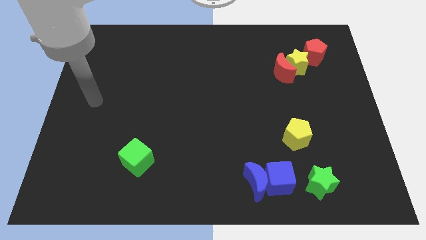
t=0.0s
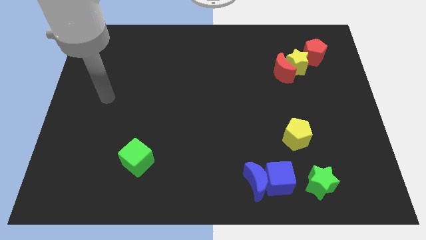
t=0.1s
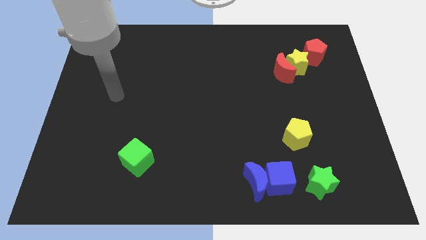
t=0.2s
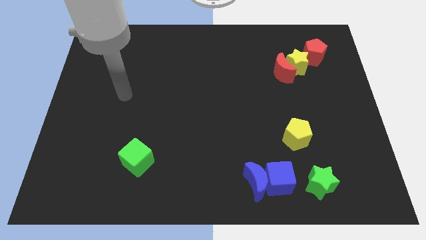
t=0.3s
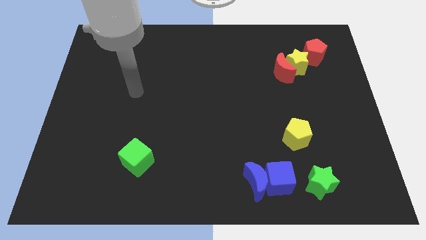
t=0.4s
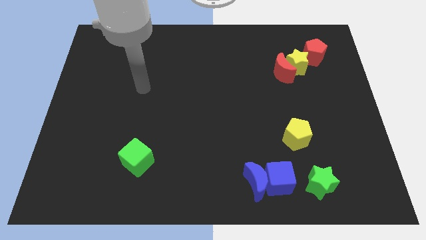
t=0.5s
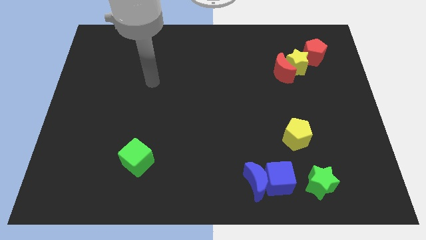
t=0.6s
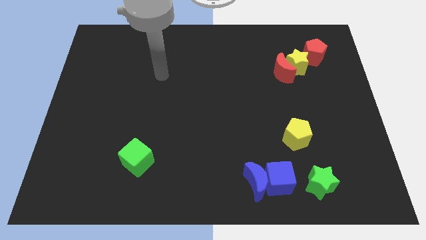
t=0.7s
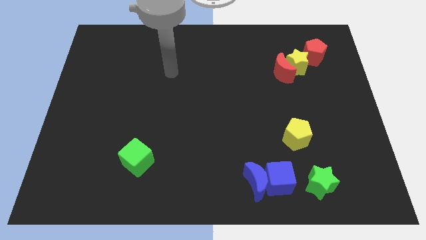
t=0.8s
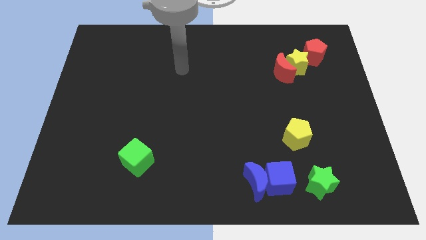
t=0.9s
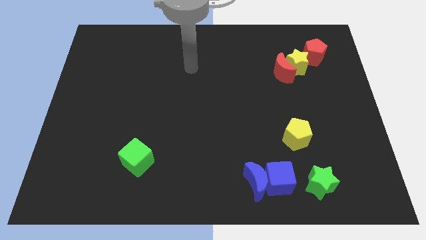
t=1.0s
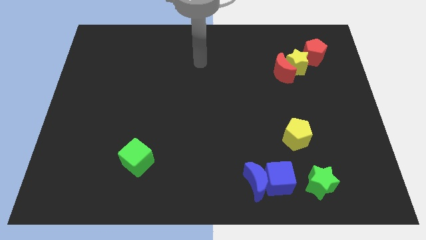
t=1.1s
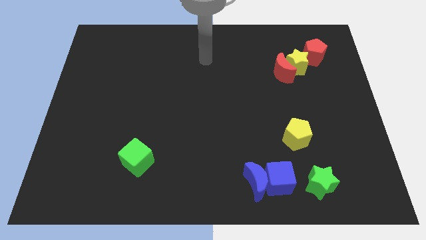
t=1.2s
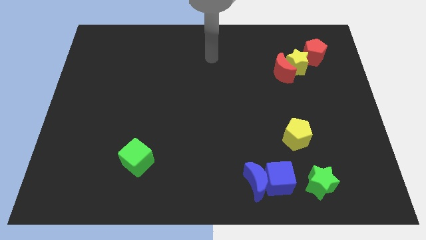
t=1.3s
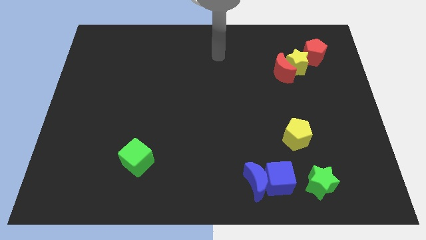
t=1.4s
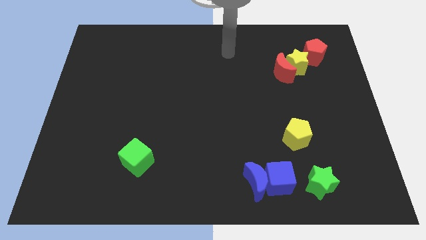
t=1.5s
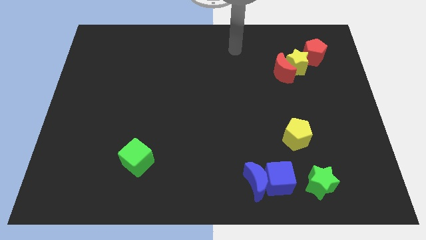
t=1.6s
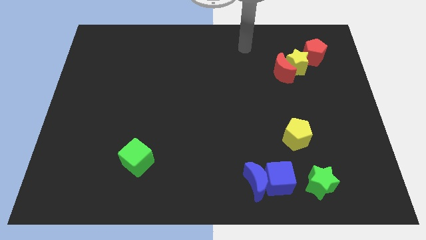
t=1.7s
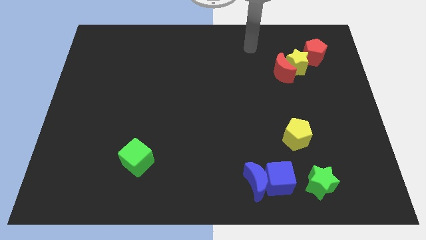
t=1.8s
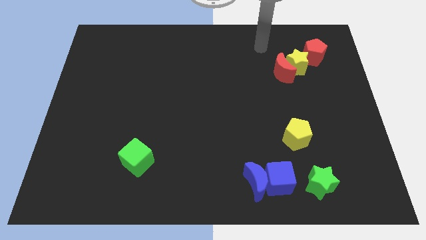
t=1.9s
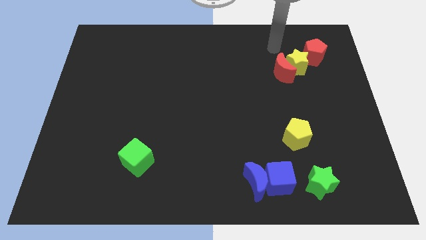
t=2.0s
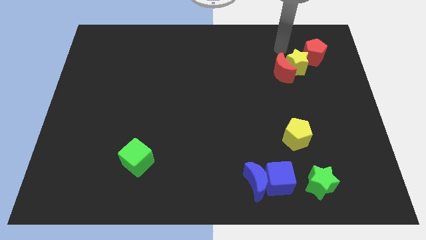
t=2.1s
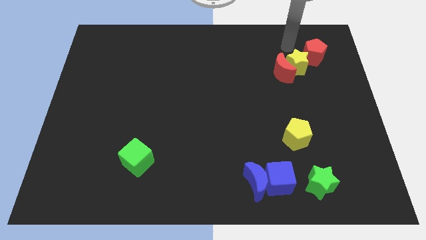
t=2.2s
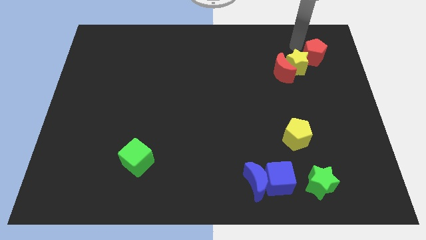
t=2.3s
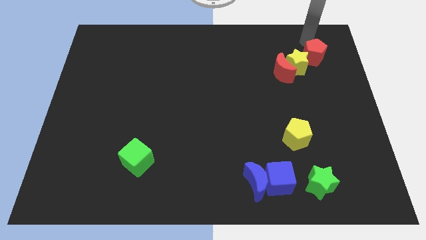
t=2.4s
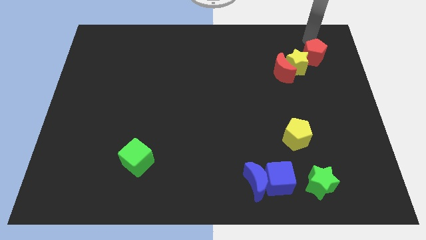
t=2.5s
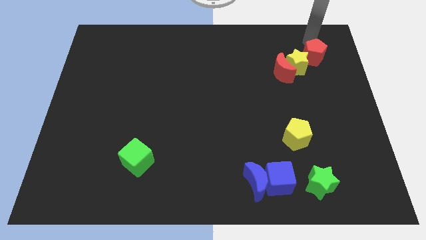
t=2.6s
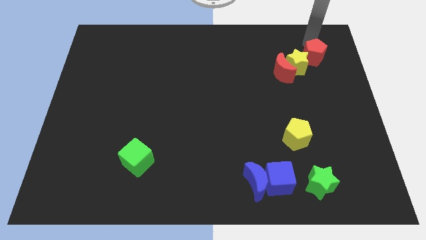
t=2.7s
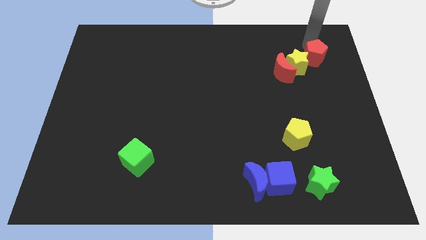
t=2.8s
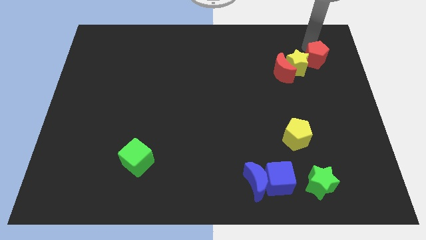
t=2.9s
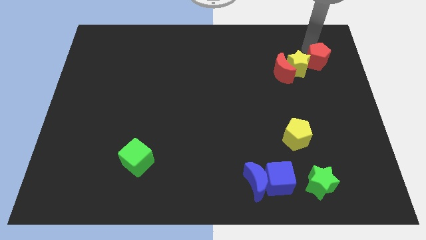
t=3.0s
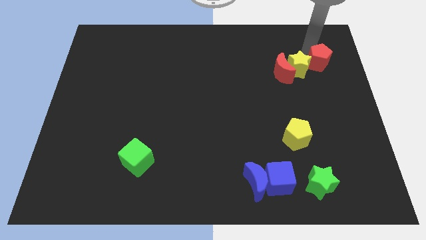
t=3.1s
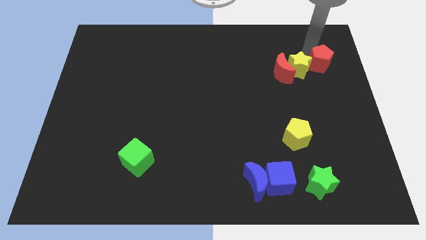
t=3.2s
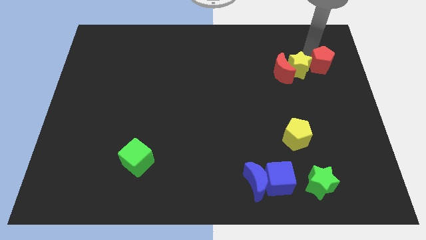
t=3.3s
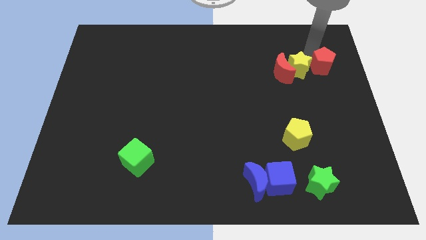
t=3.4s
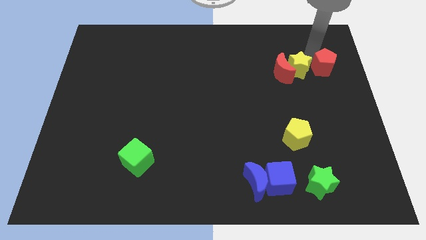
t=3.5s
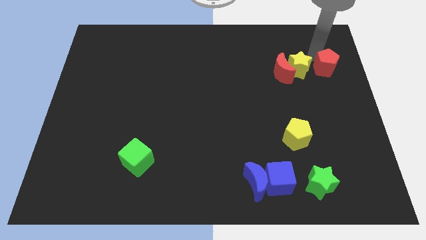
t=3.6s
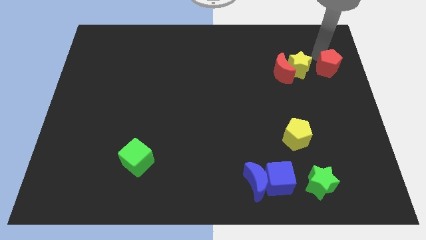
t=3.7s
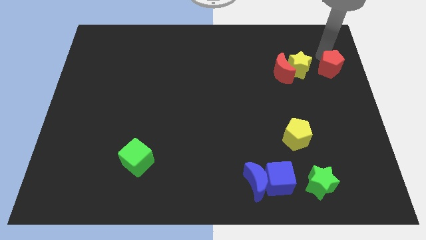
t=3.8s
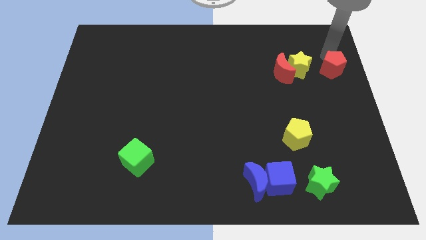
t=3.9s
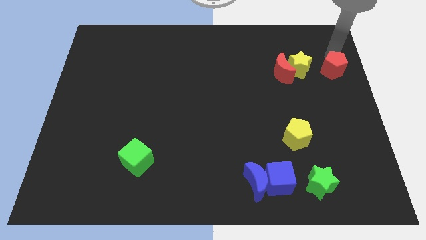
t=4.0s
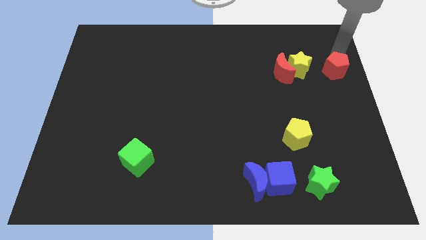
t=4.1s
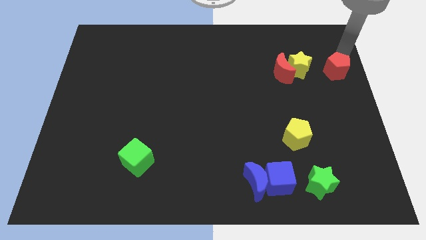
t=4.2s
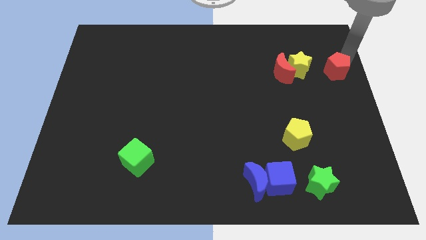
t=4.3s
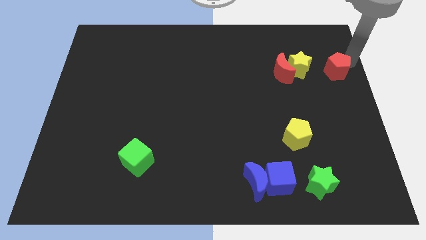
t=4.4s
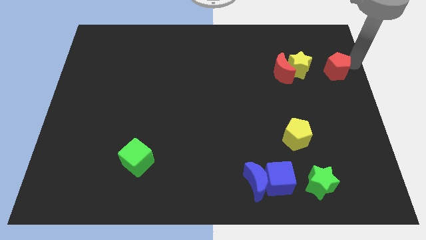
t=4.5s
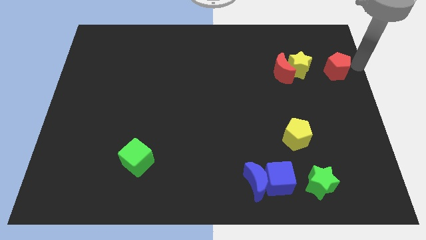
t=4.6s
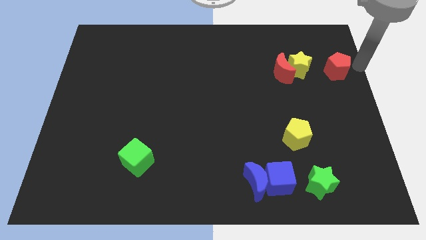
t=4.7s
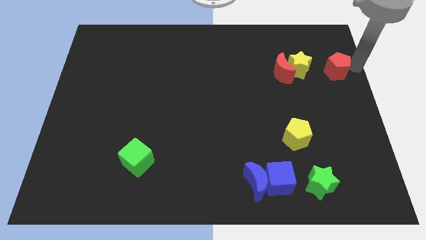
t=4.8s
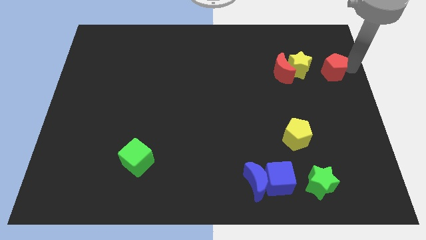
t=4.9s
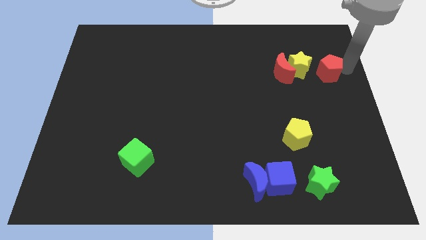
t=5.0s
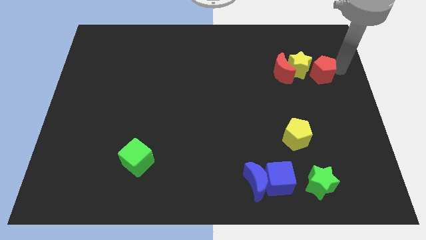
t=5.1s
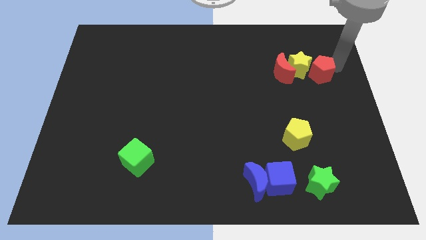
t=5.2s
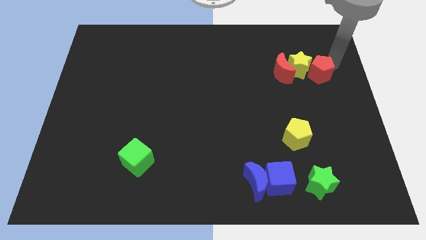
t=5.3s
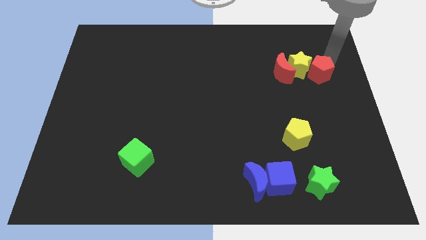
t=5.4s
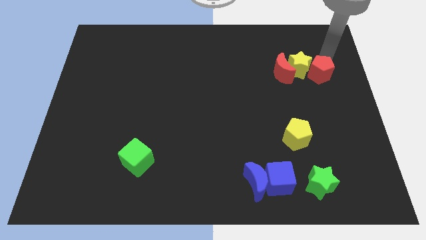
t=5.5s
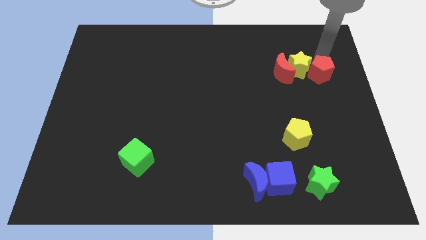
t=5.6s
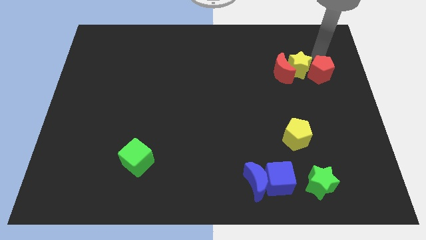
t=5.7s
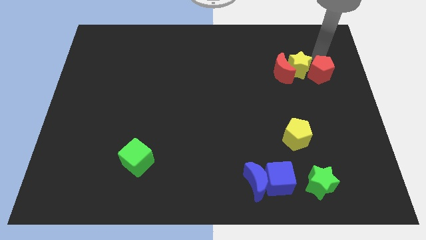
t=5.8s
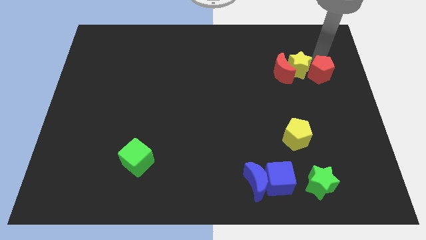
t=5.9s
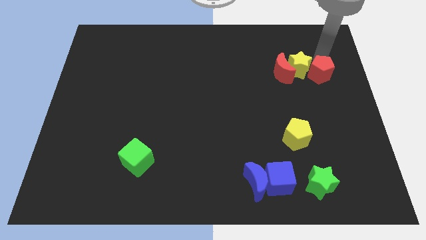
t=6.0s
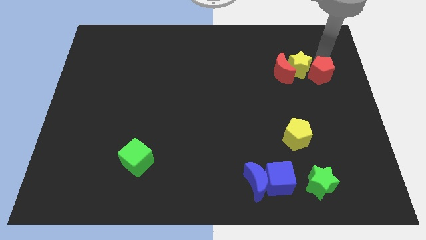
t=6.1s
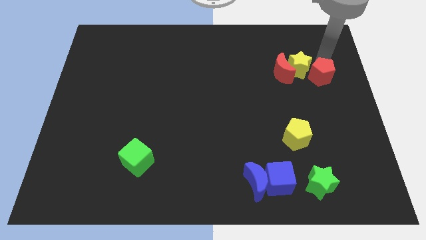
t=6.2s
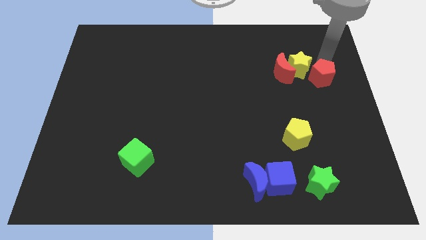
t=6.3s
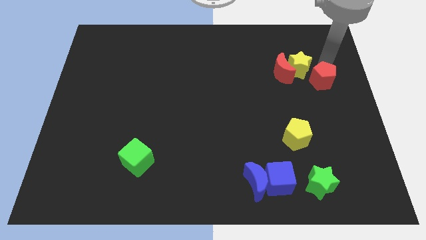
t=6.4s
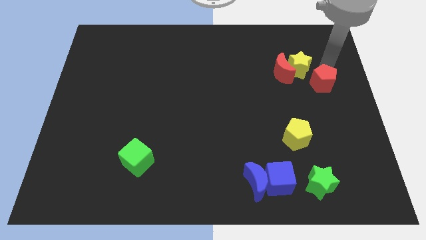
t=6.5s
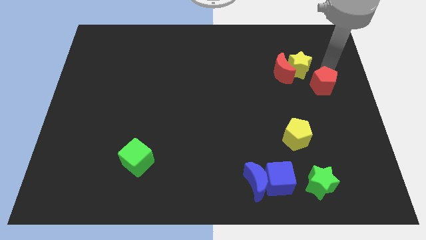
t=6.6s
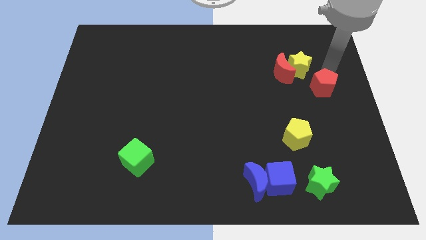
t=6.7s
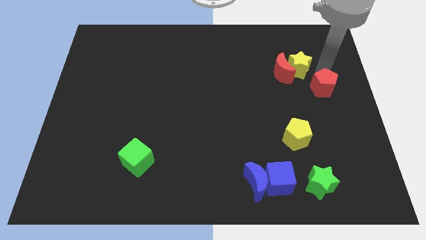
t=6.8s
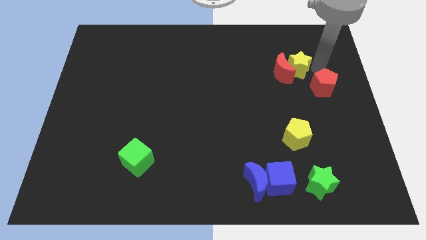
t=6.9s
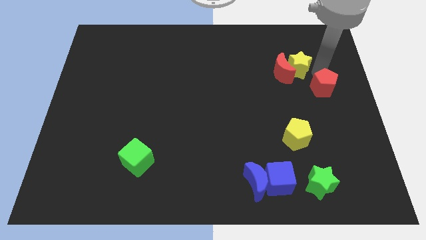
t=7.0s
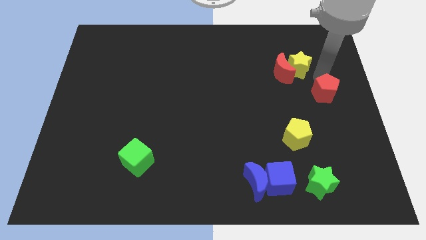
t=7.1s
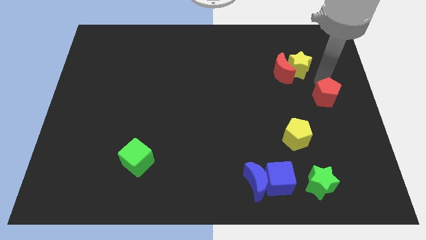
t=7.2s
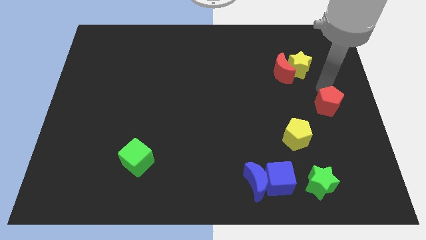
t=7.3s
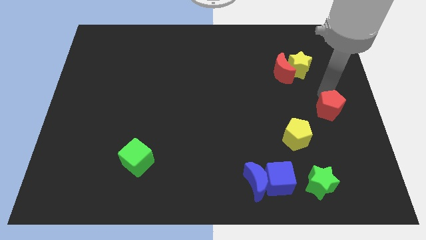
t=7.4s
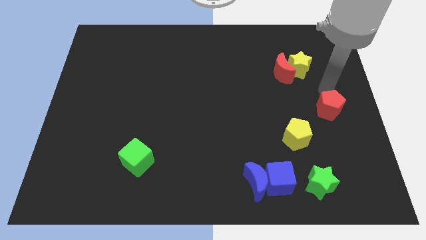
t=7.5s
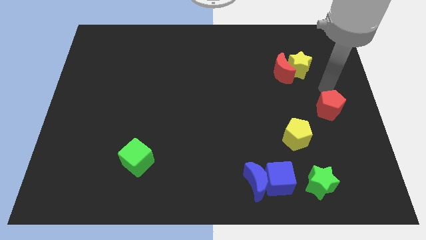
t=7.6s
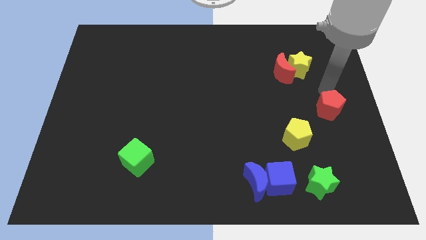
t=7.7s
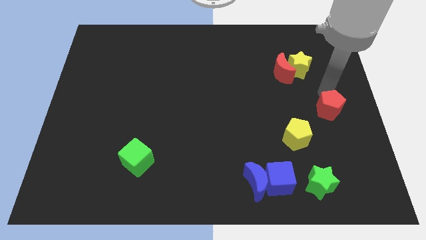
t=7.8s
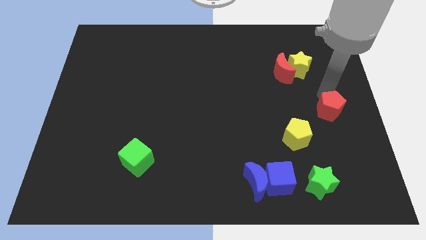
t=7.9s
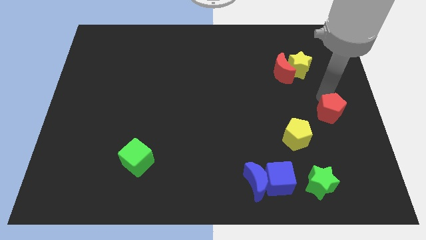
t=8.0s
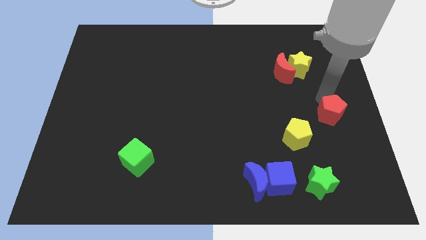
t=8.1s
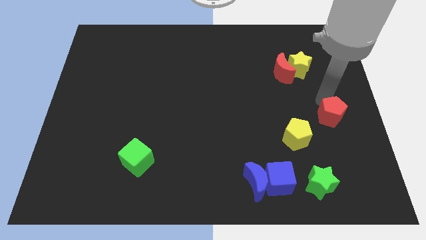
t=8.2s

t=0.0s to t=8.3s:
push the red pentagon down
